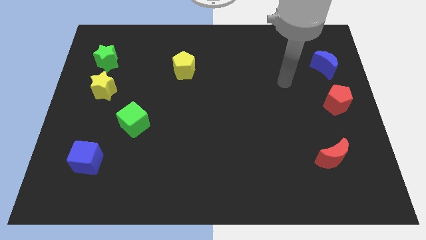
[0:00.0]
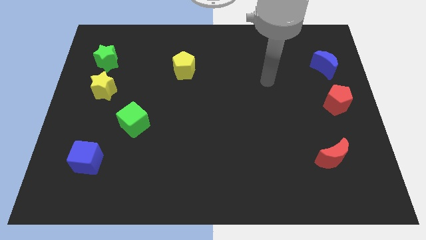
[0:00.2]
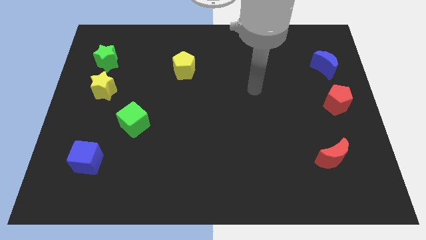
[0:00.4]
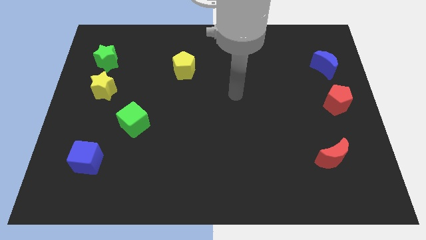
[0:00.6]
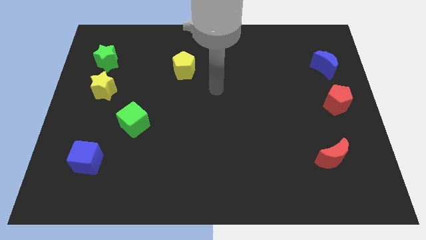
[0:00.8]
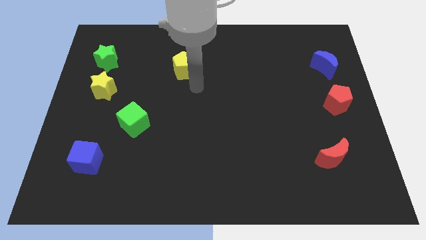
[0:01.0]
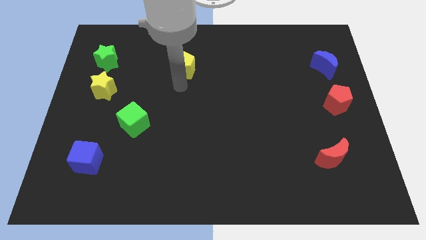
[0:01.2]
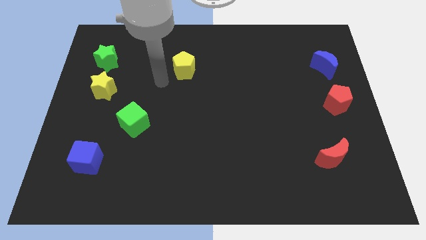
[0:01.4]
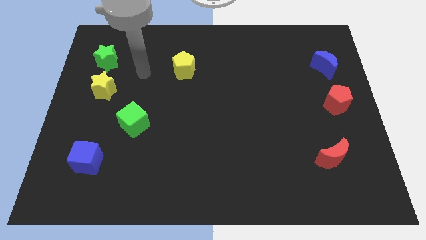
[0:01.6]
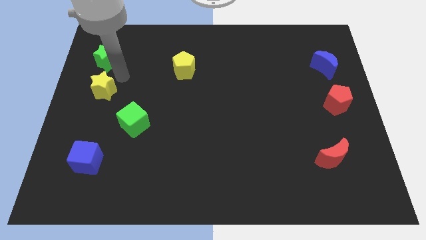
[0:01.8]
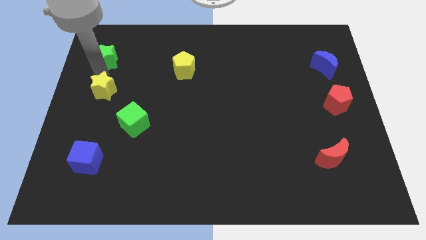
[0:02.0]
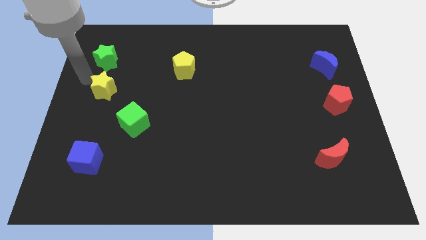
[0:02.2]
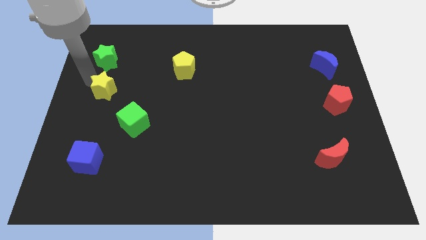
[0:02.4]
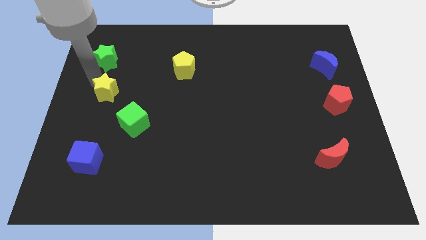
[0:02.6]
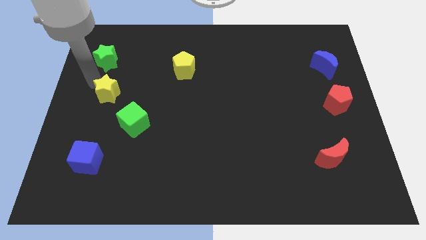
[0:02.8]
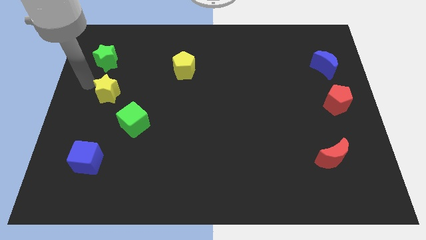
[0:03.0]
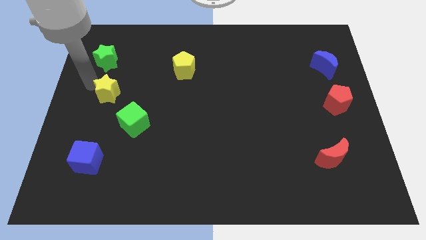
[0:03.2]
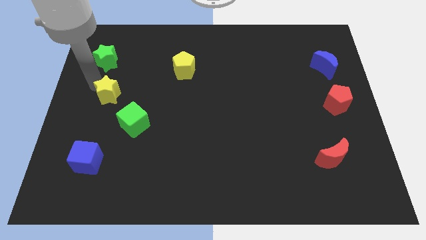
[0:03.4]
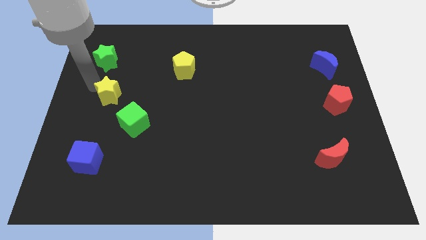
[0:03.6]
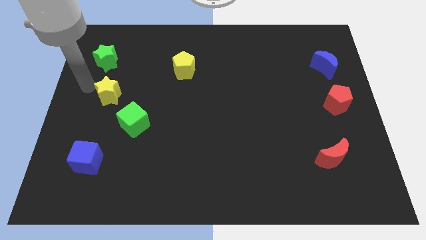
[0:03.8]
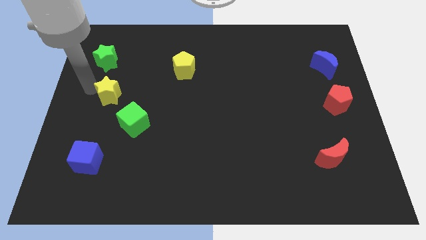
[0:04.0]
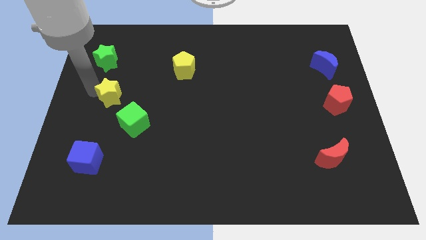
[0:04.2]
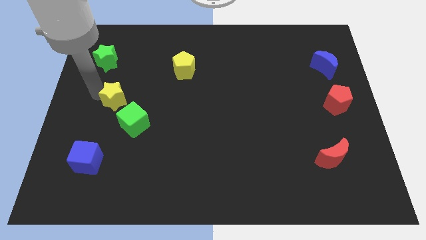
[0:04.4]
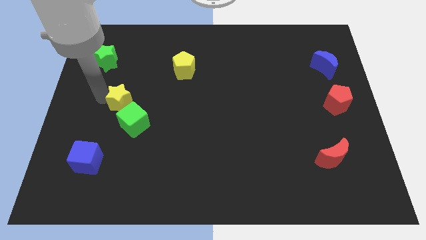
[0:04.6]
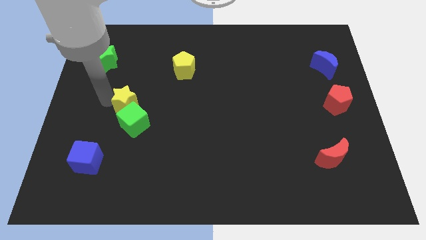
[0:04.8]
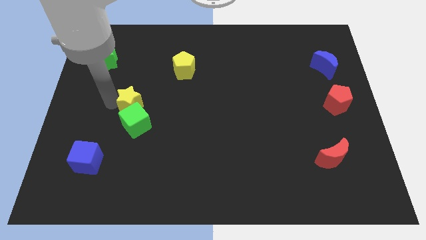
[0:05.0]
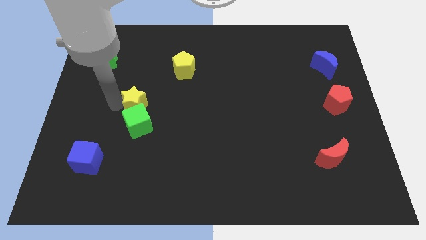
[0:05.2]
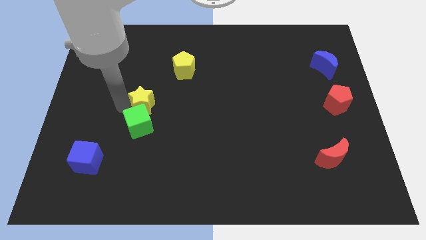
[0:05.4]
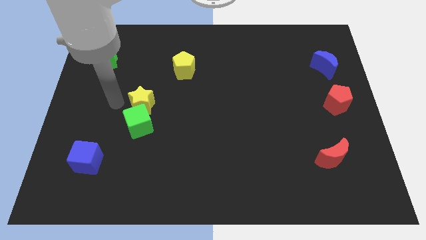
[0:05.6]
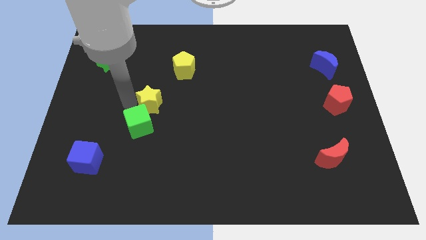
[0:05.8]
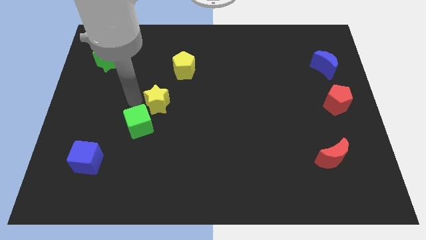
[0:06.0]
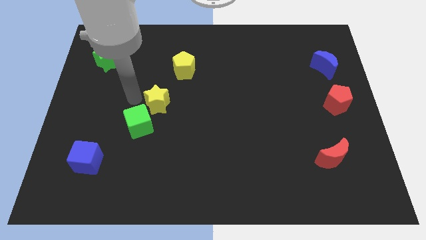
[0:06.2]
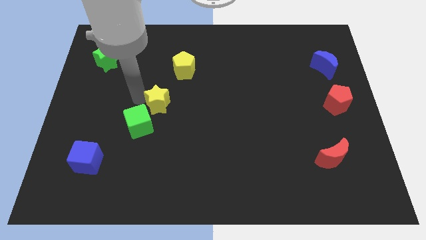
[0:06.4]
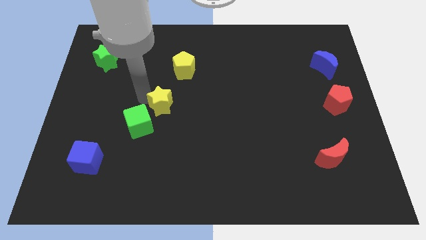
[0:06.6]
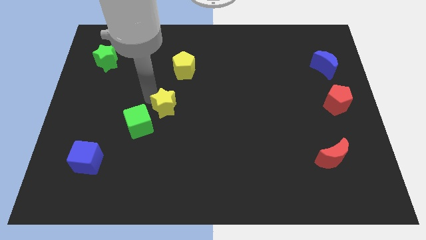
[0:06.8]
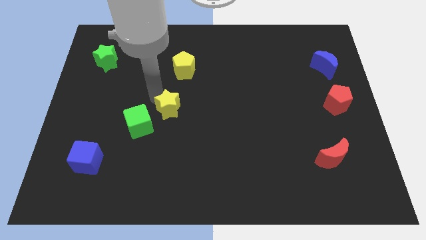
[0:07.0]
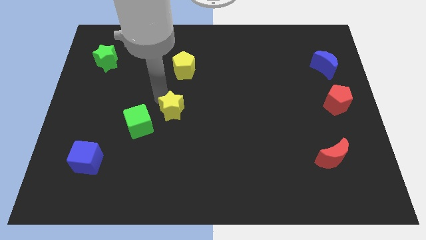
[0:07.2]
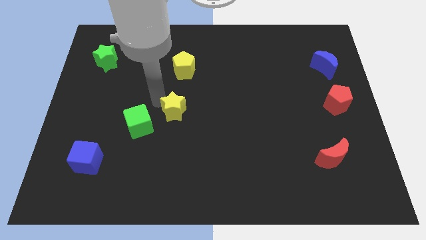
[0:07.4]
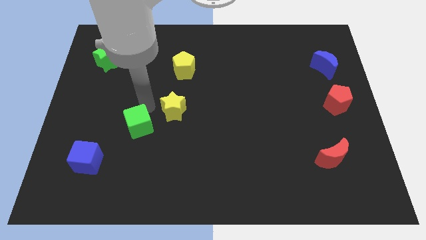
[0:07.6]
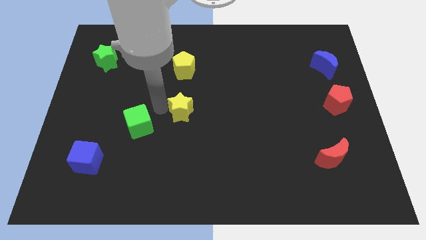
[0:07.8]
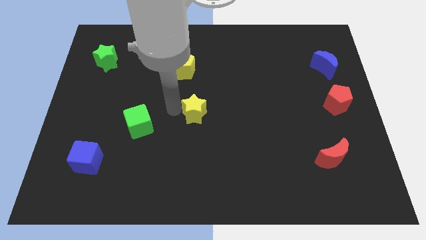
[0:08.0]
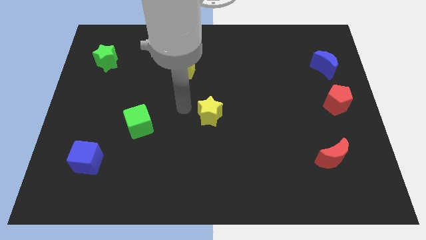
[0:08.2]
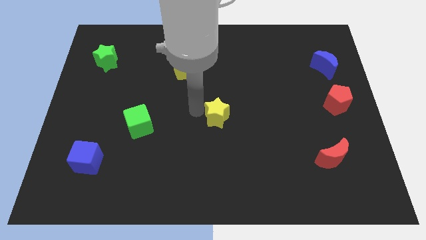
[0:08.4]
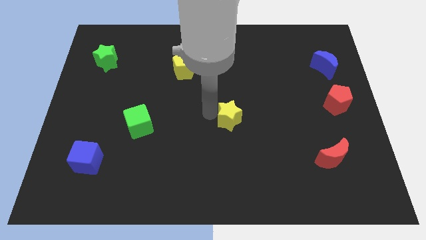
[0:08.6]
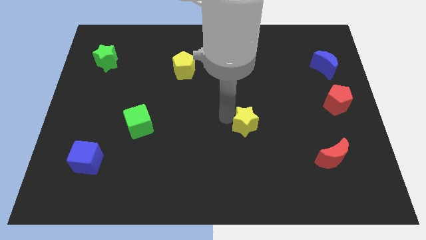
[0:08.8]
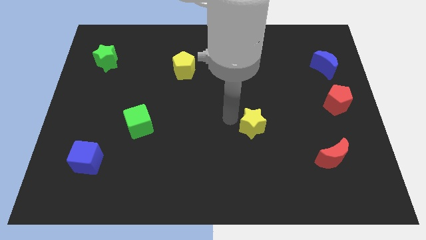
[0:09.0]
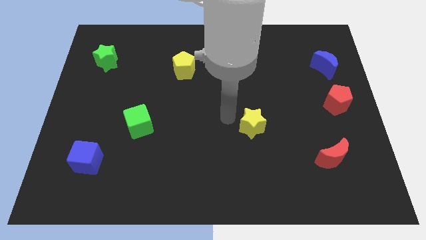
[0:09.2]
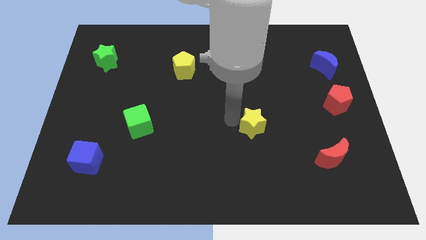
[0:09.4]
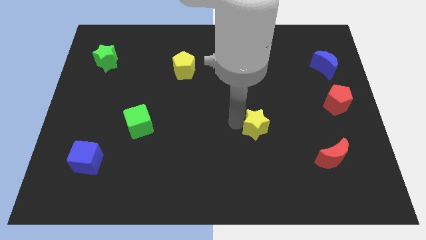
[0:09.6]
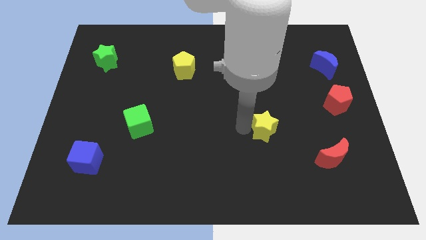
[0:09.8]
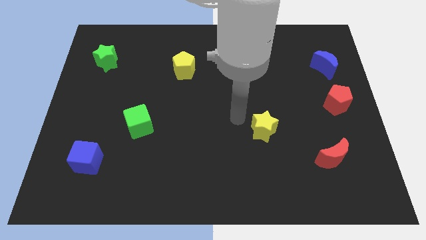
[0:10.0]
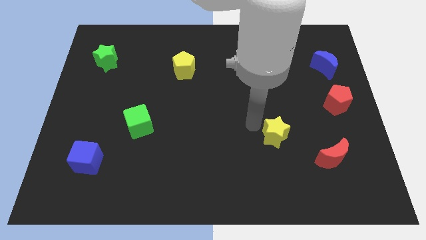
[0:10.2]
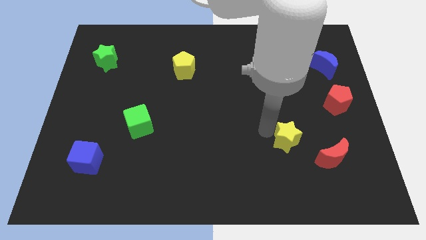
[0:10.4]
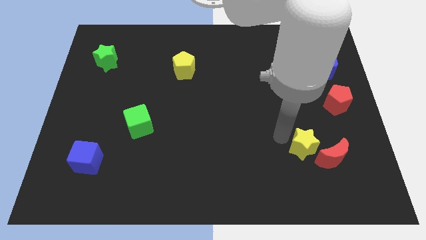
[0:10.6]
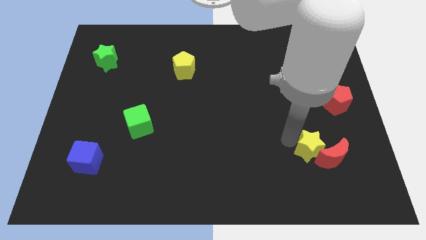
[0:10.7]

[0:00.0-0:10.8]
move the yellow star to the red moon

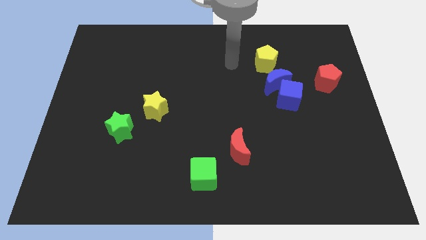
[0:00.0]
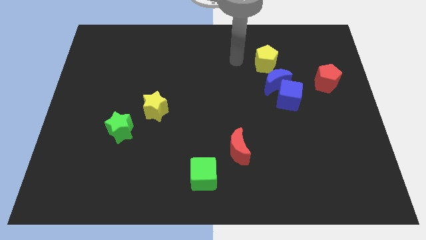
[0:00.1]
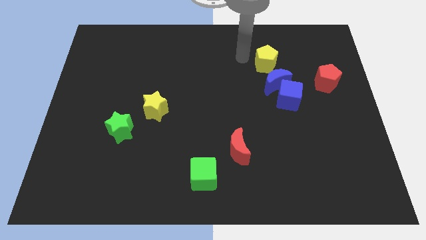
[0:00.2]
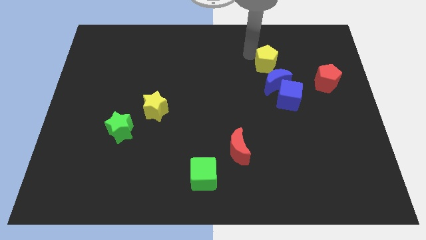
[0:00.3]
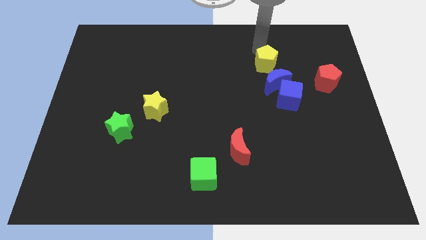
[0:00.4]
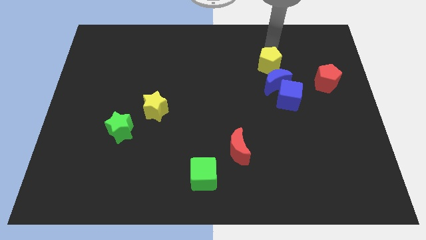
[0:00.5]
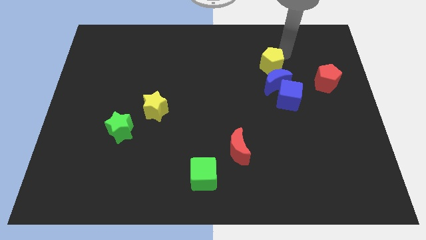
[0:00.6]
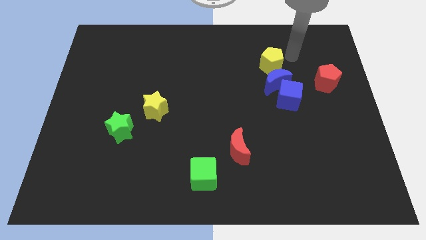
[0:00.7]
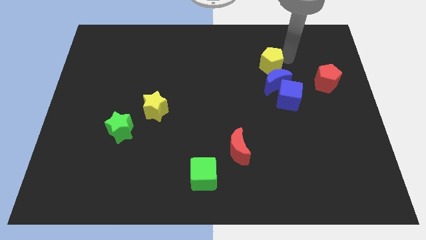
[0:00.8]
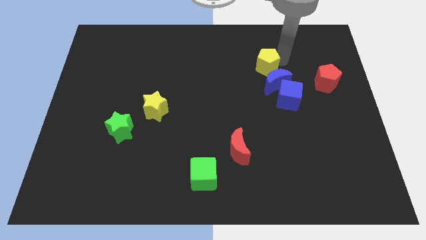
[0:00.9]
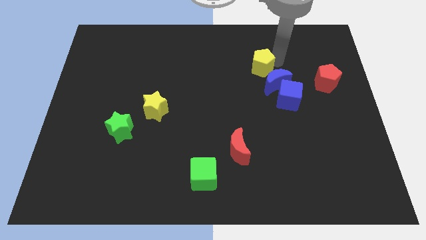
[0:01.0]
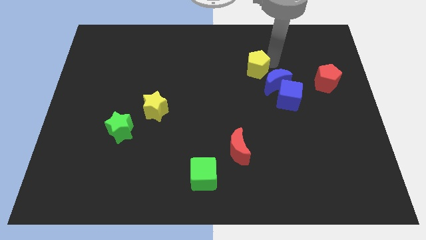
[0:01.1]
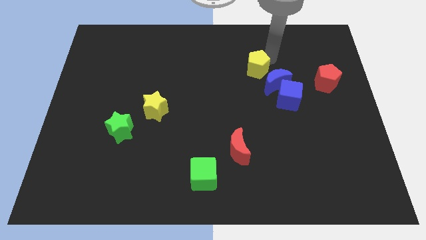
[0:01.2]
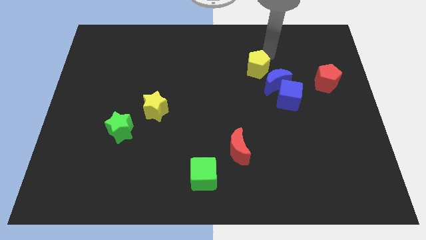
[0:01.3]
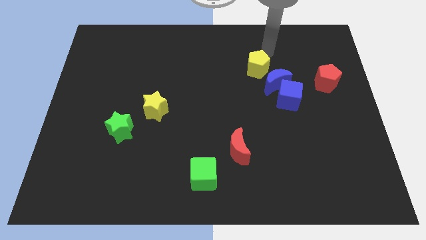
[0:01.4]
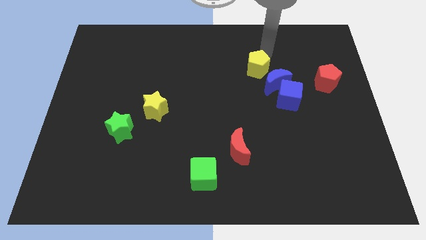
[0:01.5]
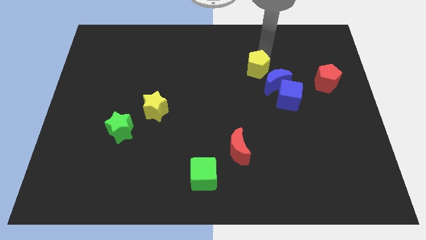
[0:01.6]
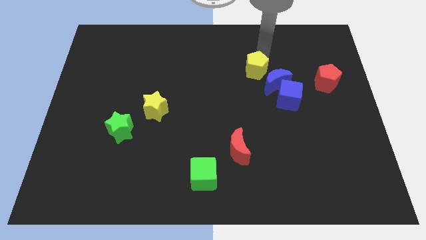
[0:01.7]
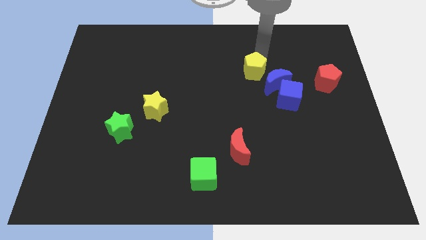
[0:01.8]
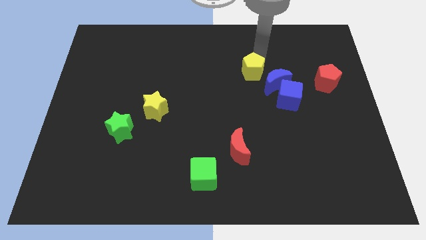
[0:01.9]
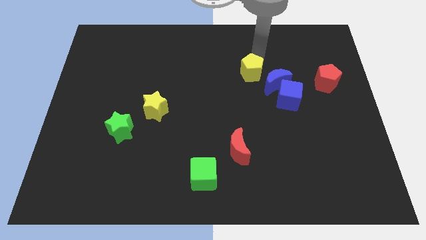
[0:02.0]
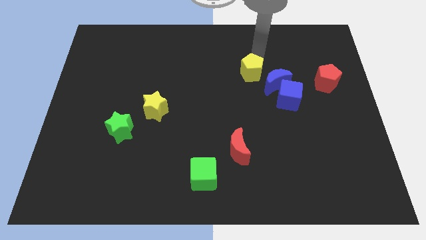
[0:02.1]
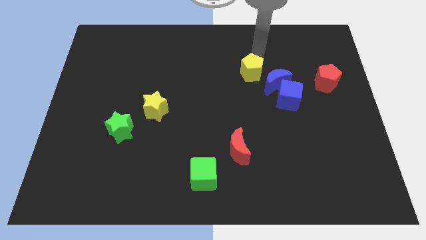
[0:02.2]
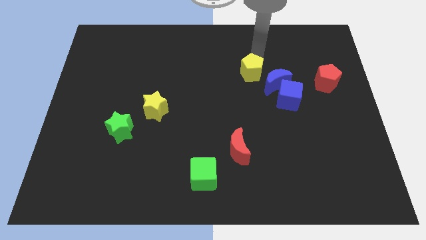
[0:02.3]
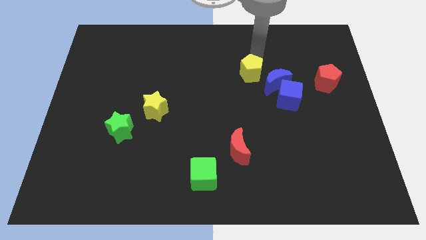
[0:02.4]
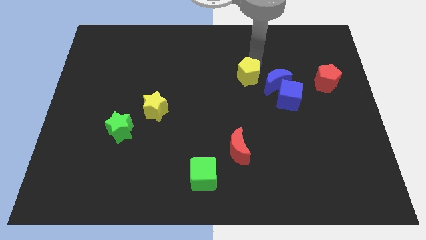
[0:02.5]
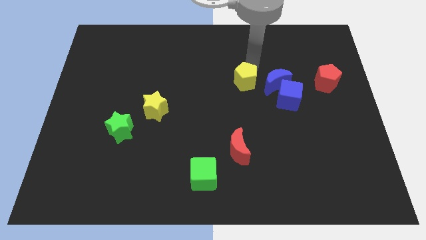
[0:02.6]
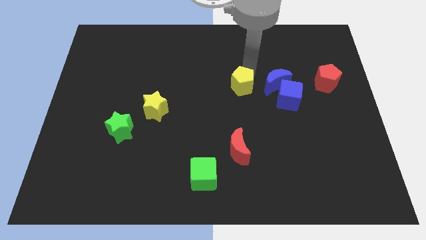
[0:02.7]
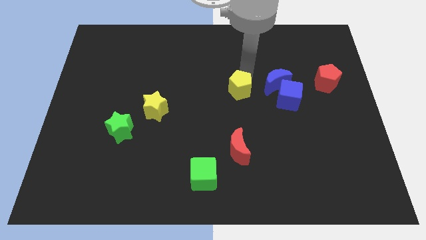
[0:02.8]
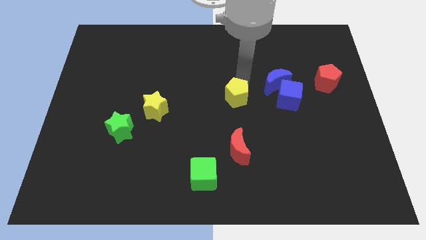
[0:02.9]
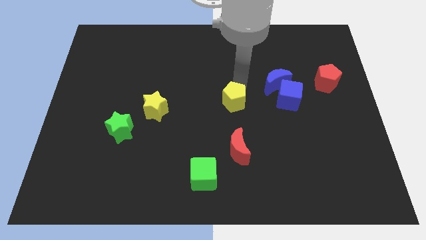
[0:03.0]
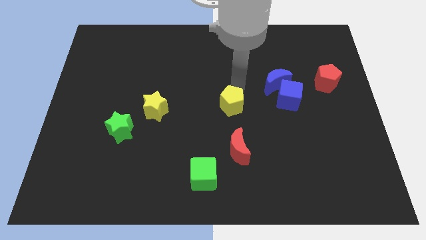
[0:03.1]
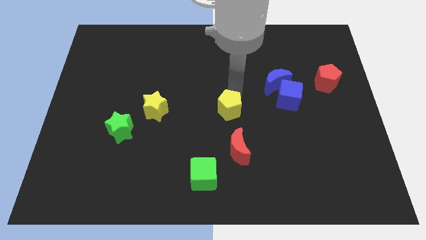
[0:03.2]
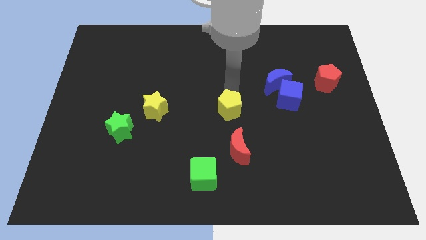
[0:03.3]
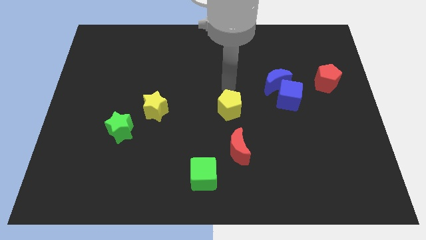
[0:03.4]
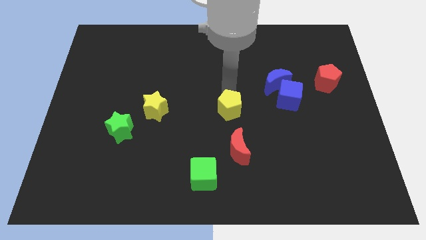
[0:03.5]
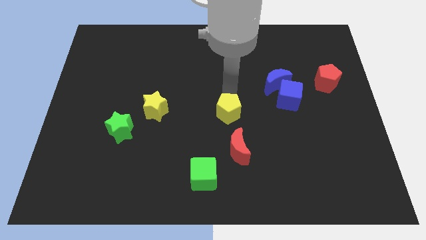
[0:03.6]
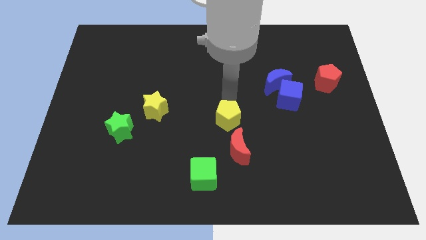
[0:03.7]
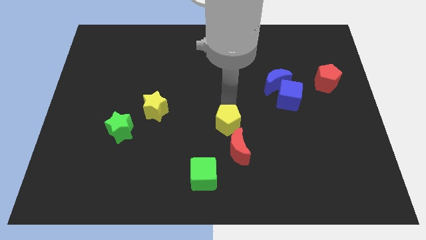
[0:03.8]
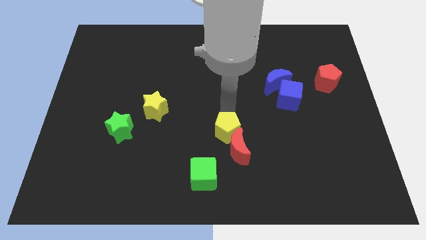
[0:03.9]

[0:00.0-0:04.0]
put the yellow pentagon to the red moon
